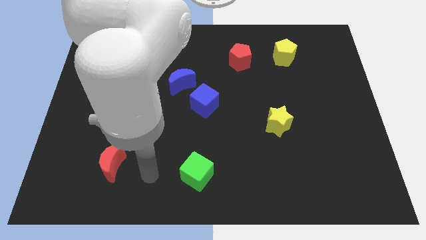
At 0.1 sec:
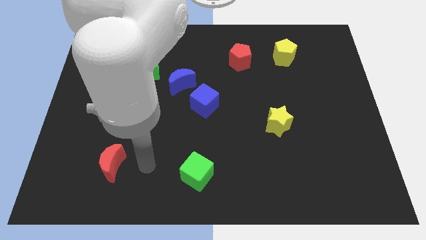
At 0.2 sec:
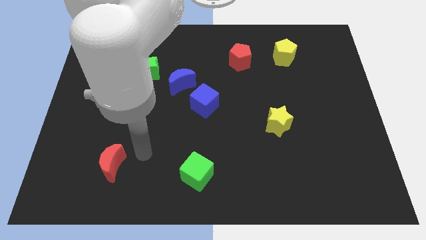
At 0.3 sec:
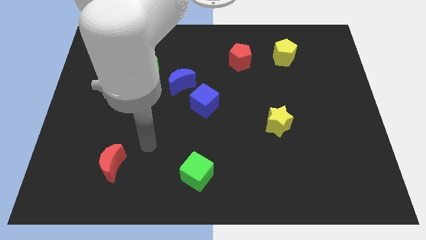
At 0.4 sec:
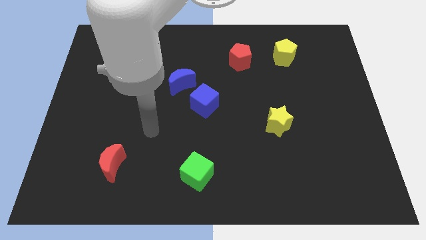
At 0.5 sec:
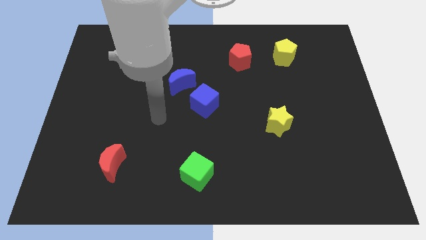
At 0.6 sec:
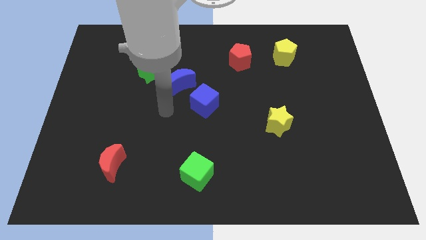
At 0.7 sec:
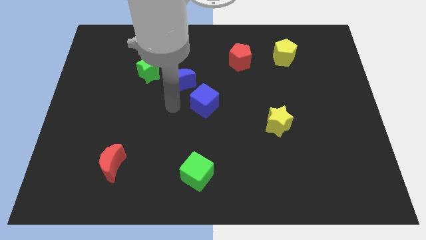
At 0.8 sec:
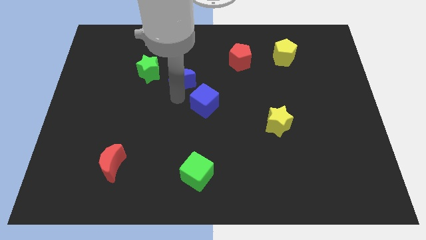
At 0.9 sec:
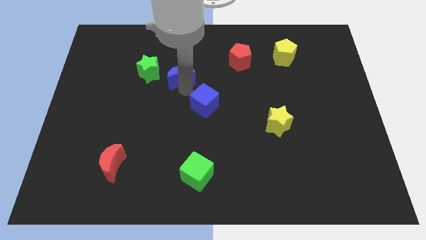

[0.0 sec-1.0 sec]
move the blue cube away from the blue moon

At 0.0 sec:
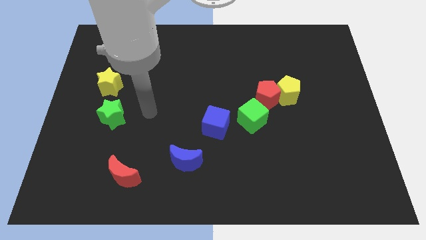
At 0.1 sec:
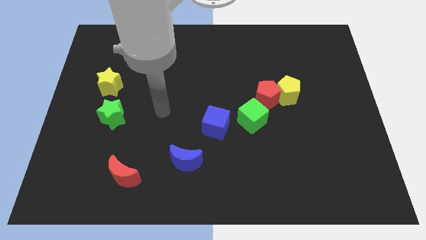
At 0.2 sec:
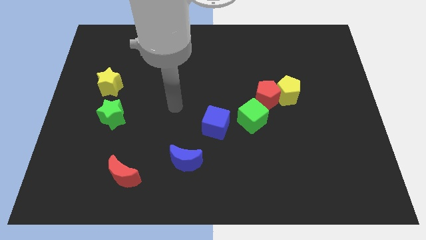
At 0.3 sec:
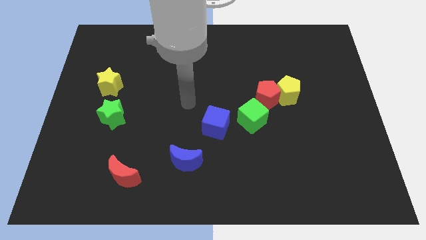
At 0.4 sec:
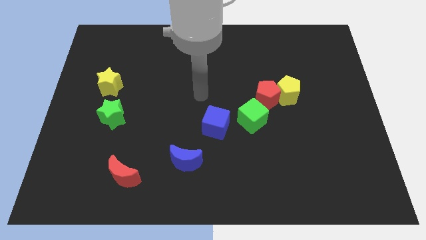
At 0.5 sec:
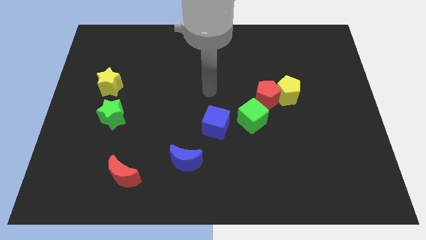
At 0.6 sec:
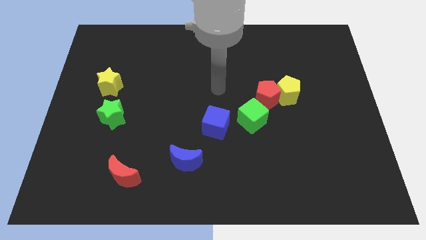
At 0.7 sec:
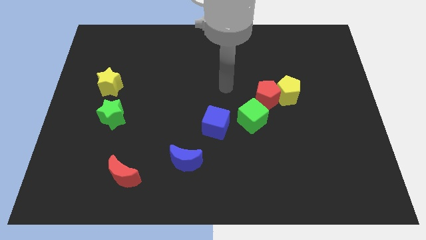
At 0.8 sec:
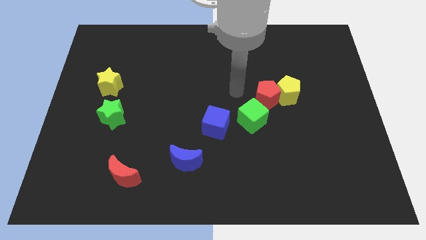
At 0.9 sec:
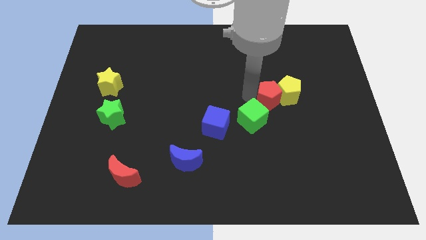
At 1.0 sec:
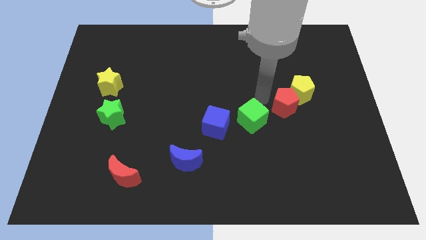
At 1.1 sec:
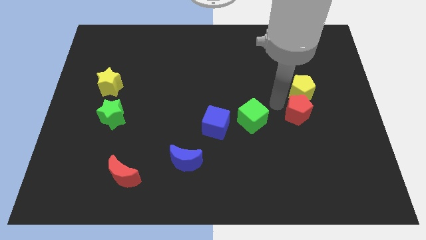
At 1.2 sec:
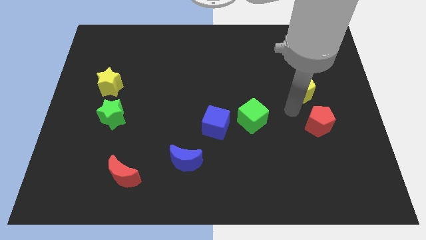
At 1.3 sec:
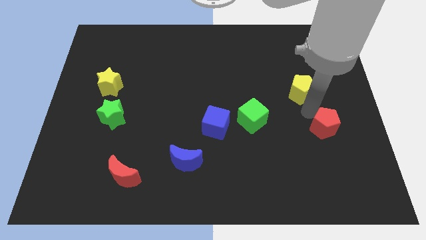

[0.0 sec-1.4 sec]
pull the yellow pentagon apart from the red pentagon

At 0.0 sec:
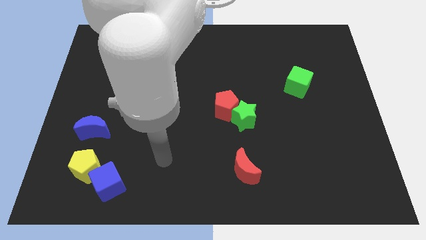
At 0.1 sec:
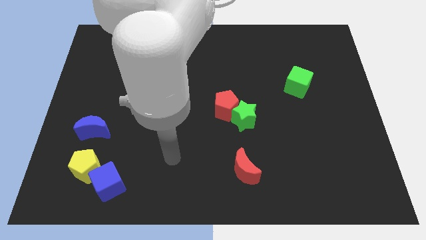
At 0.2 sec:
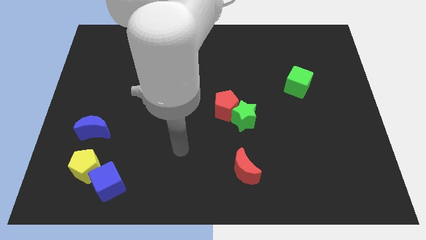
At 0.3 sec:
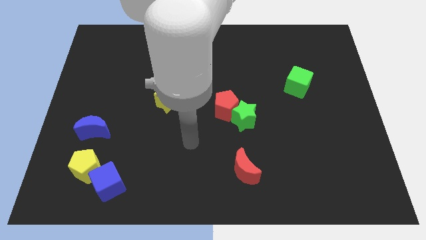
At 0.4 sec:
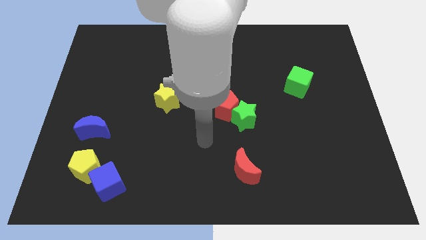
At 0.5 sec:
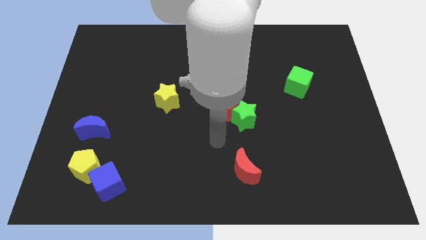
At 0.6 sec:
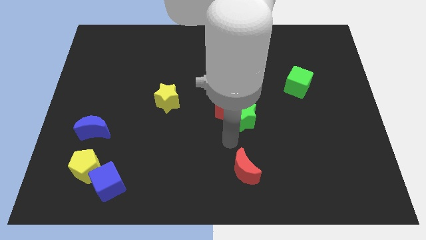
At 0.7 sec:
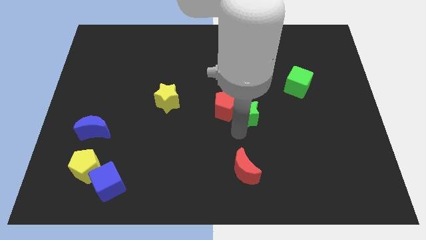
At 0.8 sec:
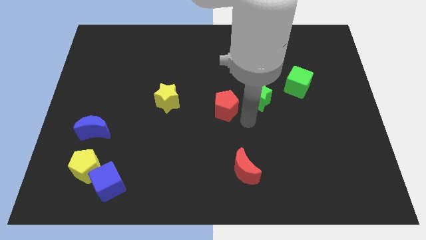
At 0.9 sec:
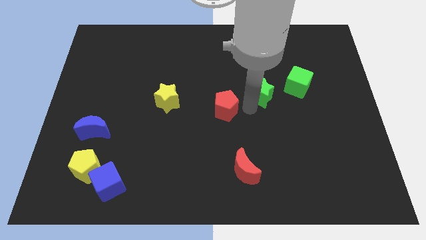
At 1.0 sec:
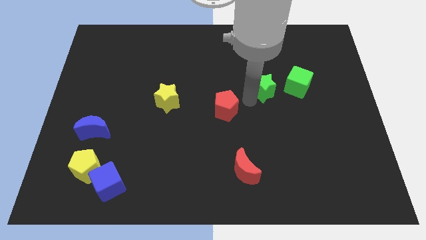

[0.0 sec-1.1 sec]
move the red pentagon away from the green star

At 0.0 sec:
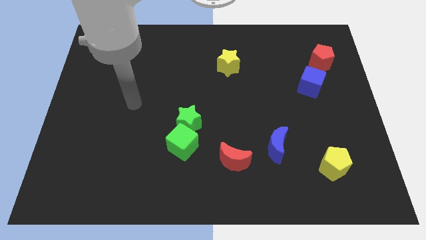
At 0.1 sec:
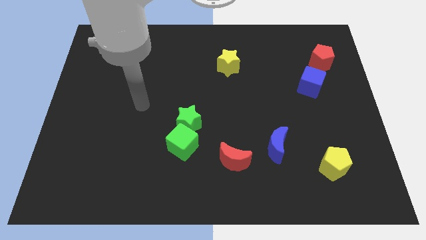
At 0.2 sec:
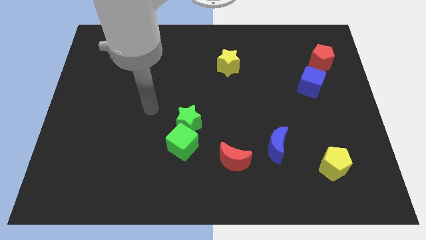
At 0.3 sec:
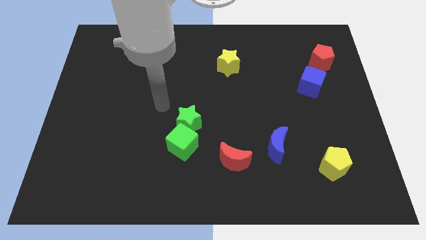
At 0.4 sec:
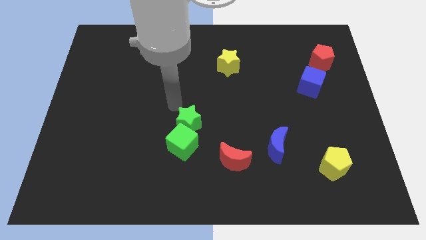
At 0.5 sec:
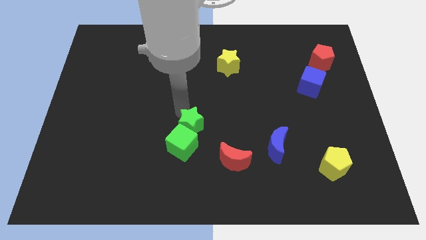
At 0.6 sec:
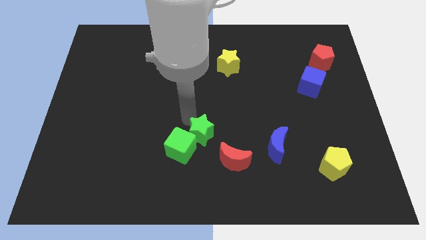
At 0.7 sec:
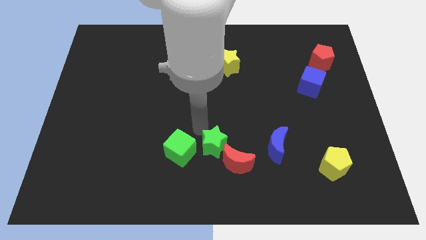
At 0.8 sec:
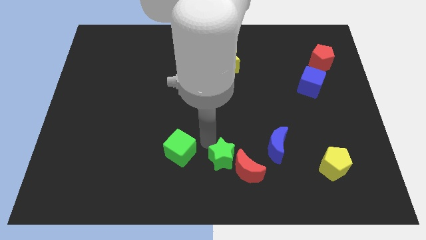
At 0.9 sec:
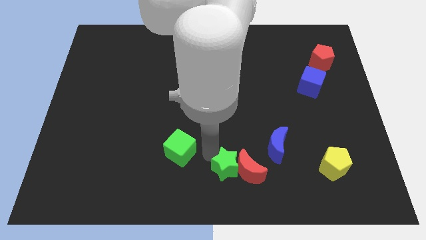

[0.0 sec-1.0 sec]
move the green cube away from the green star

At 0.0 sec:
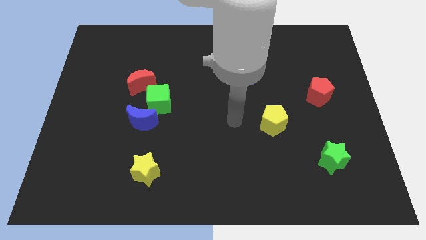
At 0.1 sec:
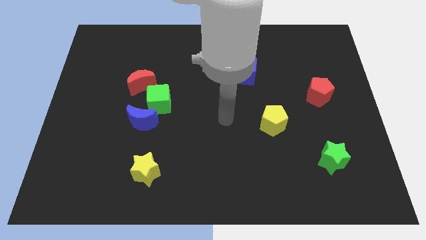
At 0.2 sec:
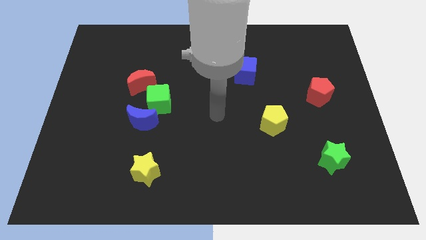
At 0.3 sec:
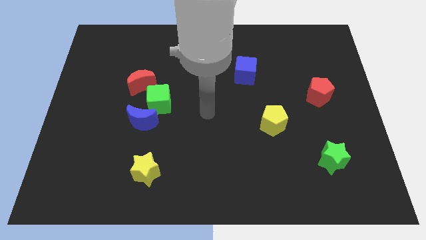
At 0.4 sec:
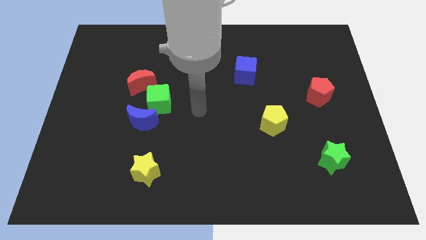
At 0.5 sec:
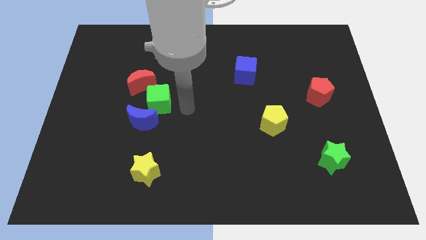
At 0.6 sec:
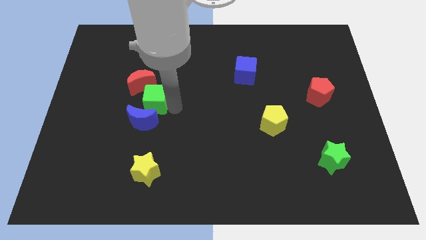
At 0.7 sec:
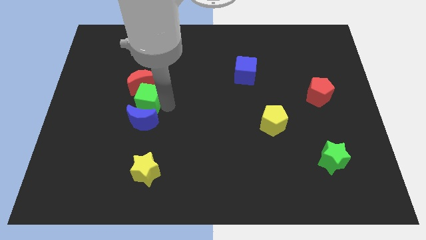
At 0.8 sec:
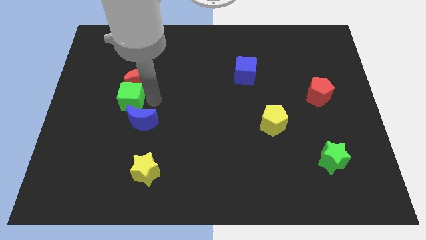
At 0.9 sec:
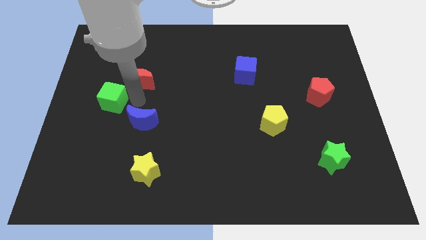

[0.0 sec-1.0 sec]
separate the blue moon from the green cube

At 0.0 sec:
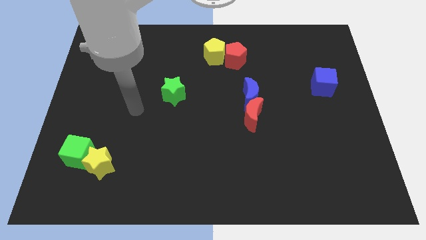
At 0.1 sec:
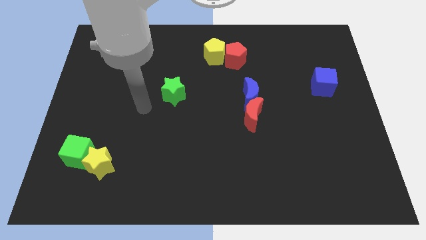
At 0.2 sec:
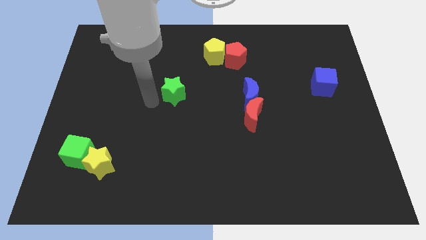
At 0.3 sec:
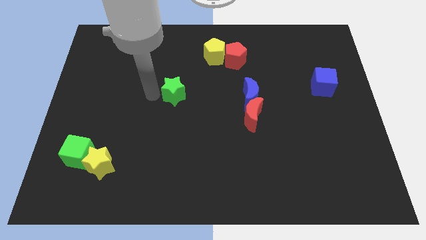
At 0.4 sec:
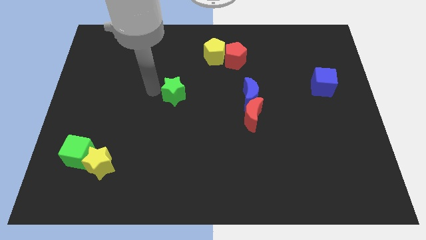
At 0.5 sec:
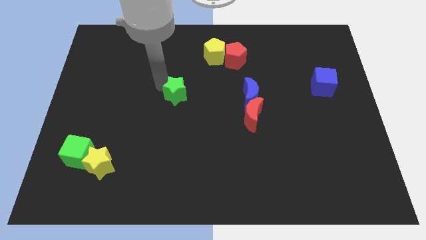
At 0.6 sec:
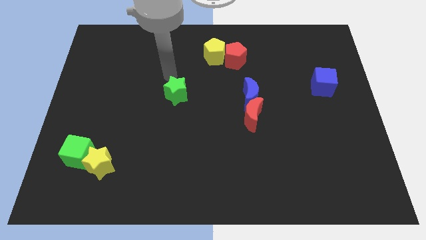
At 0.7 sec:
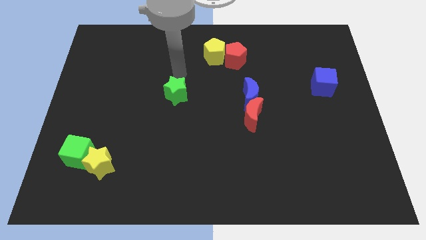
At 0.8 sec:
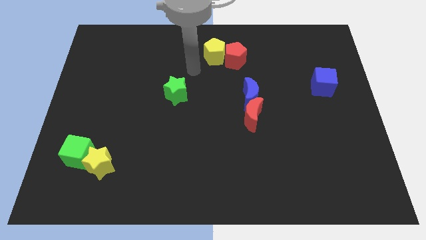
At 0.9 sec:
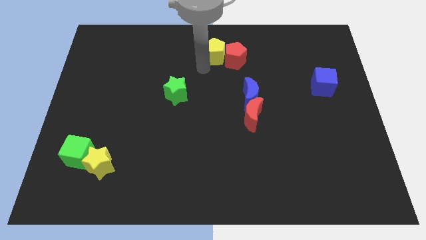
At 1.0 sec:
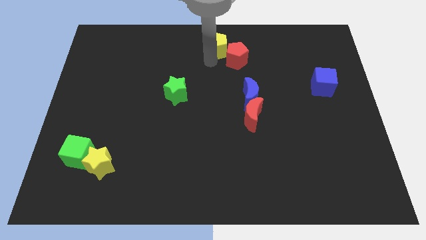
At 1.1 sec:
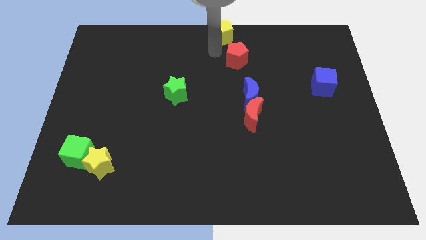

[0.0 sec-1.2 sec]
pull the red pentagon apart from the yellow pentagon

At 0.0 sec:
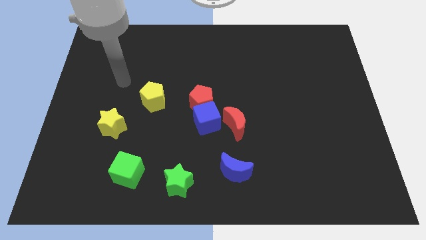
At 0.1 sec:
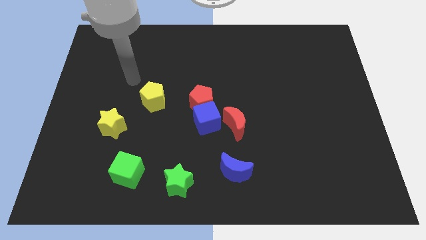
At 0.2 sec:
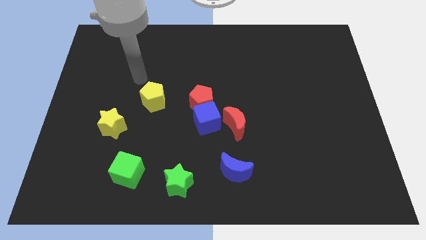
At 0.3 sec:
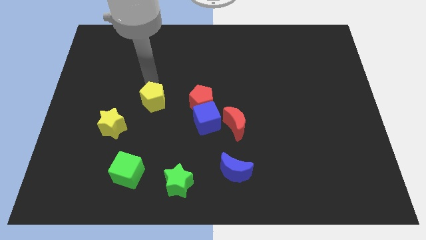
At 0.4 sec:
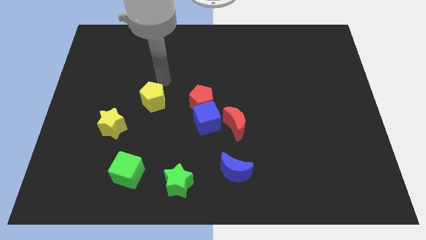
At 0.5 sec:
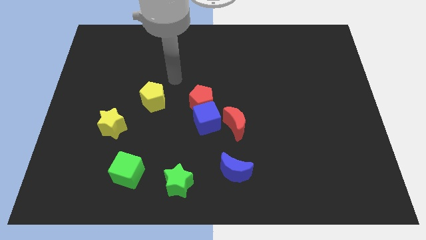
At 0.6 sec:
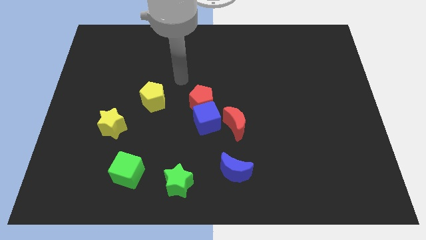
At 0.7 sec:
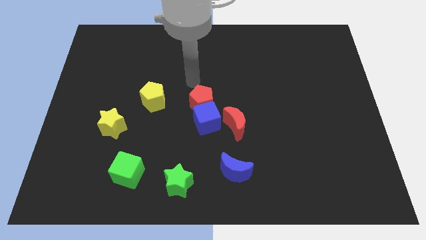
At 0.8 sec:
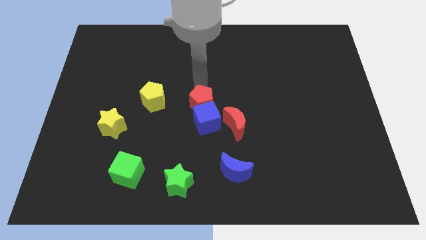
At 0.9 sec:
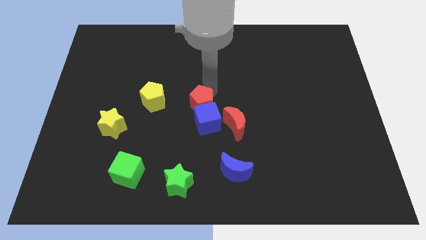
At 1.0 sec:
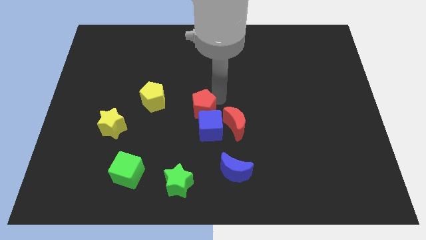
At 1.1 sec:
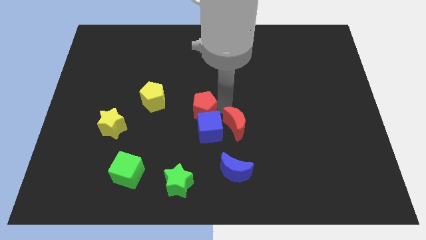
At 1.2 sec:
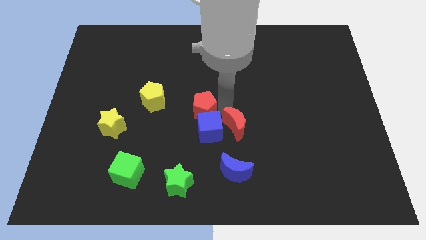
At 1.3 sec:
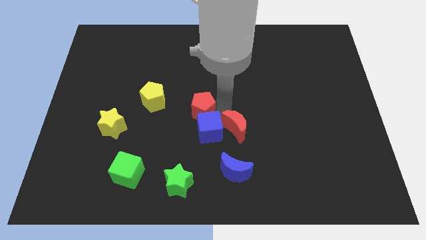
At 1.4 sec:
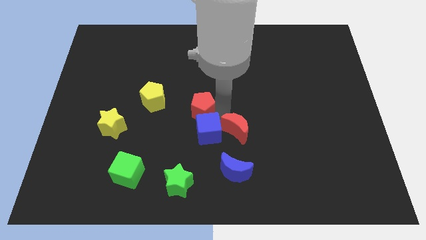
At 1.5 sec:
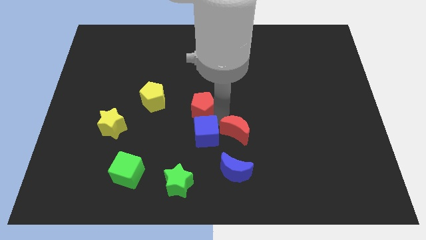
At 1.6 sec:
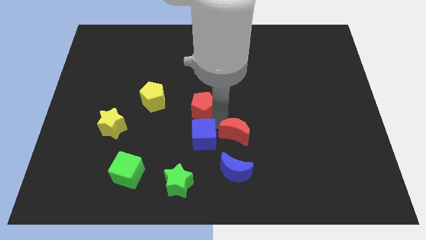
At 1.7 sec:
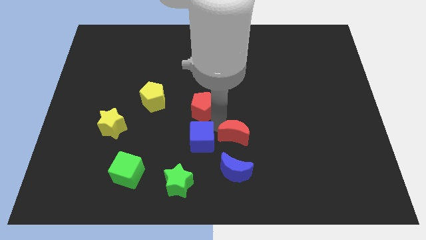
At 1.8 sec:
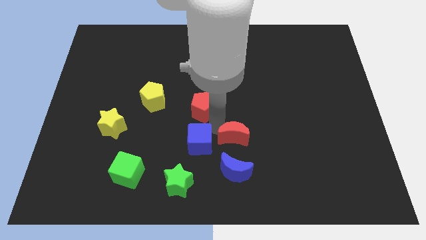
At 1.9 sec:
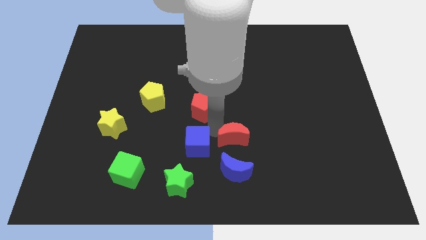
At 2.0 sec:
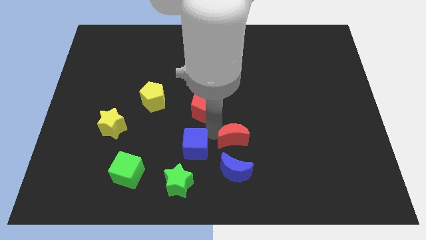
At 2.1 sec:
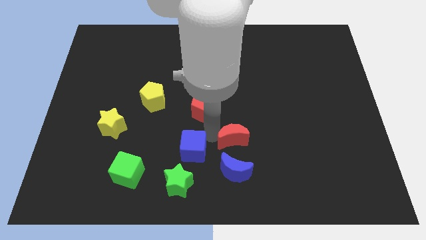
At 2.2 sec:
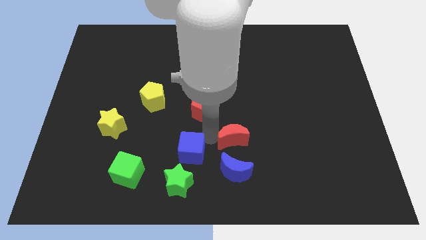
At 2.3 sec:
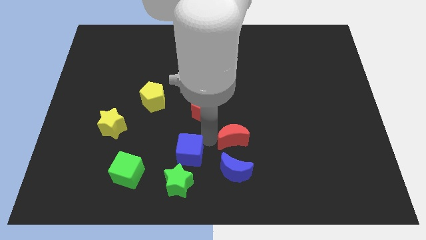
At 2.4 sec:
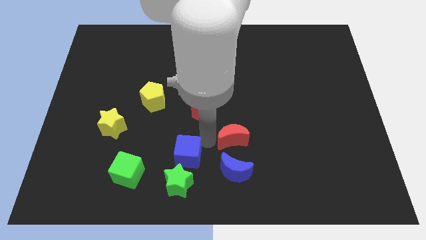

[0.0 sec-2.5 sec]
pull the blue cube apart from the red pentagon and red moon
